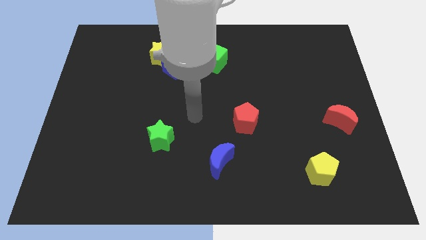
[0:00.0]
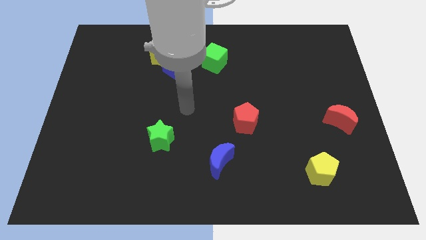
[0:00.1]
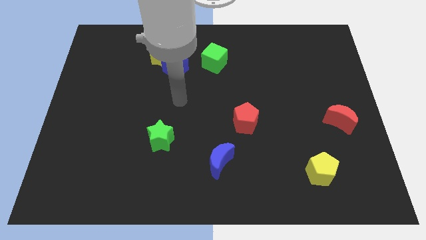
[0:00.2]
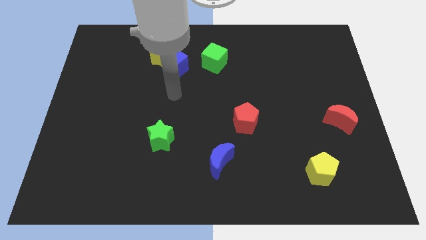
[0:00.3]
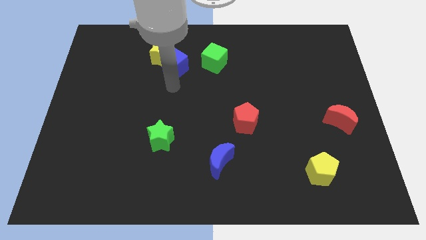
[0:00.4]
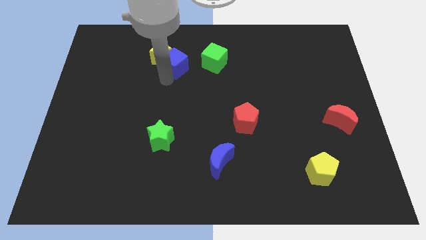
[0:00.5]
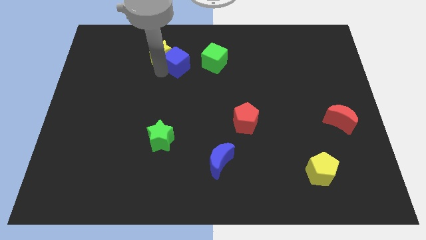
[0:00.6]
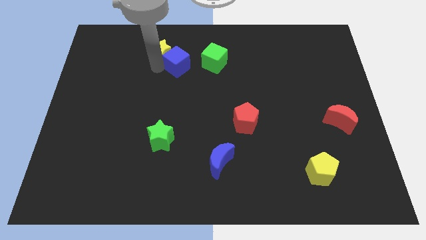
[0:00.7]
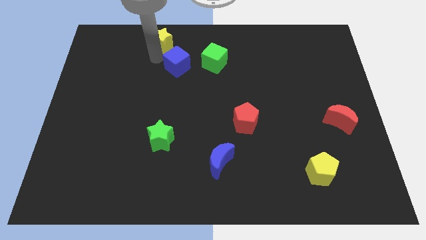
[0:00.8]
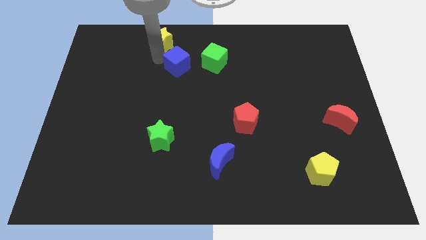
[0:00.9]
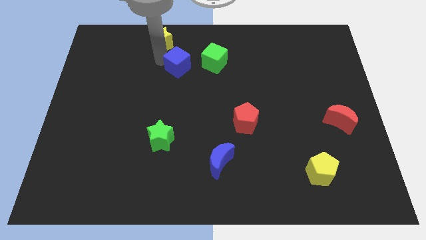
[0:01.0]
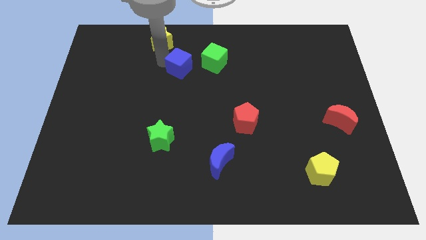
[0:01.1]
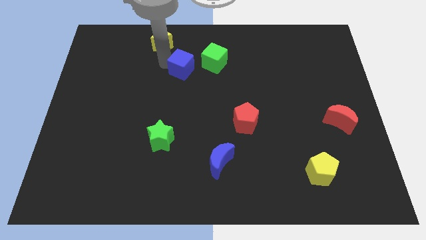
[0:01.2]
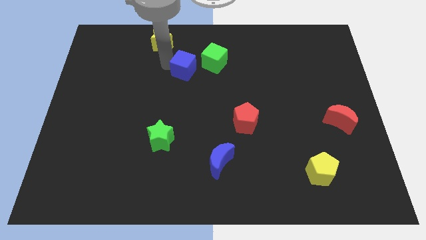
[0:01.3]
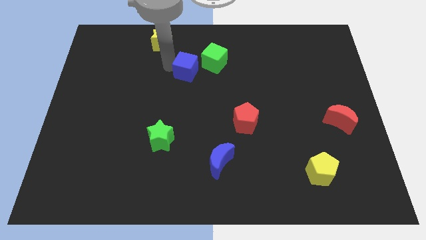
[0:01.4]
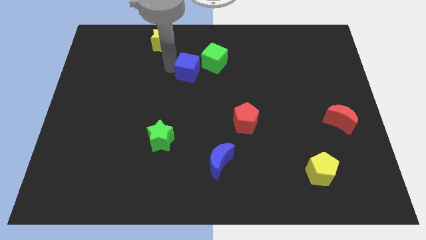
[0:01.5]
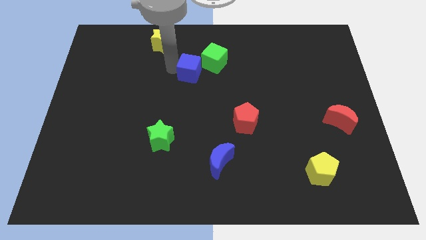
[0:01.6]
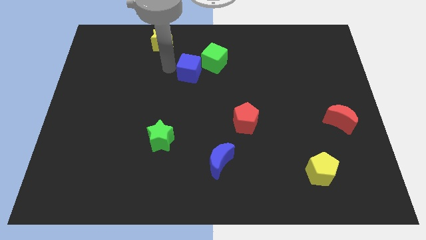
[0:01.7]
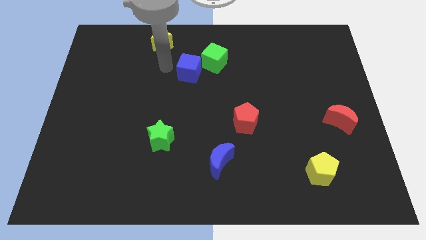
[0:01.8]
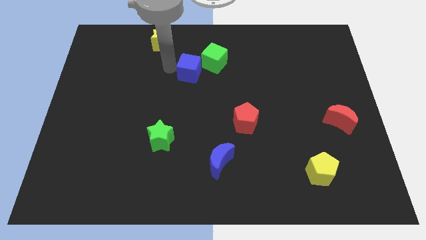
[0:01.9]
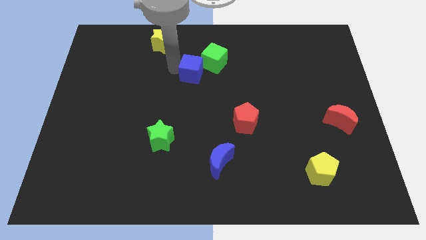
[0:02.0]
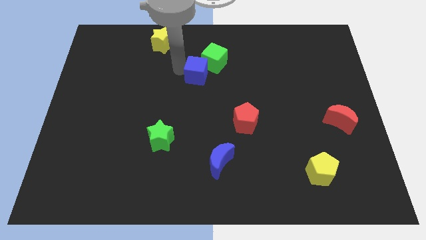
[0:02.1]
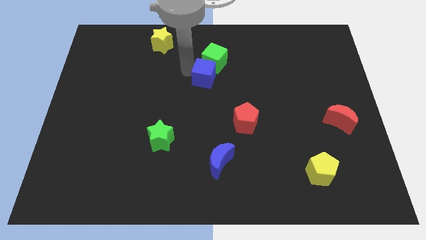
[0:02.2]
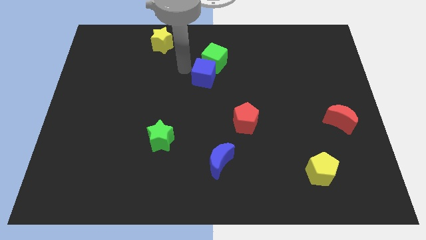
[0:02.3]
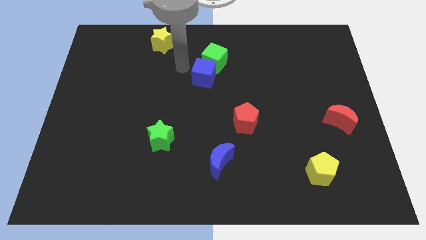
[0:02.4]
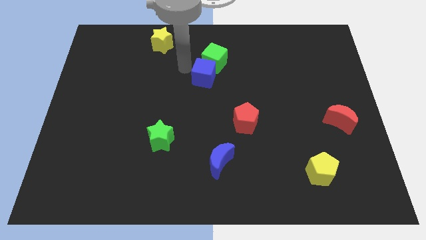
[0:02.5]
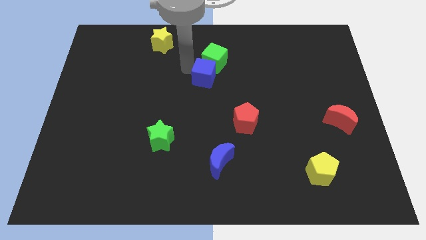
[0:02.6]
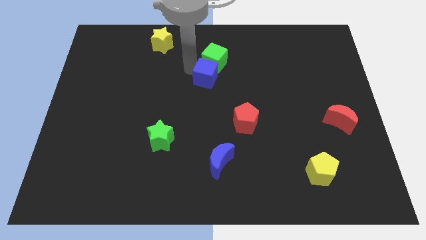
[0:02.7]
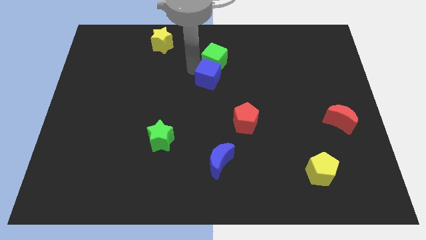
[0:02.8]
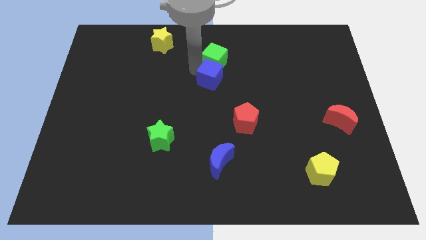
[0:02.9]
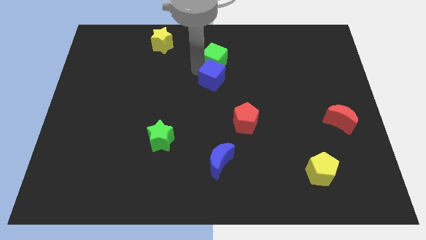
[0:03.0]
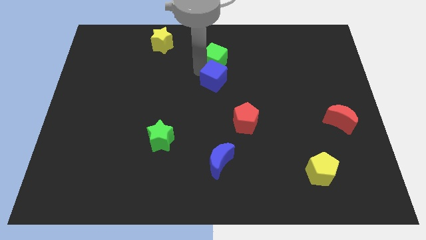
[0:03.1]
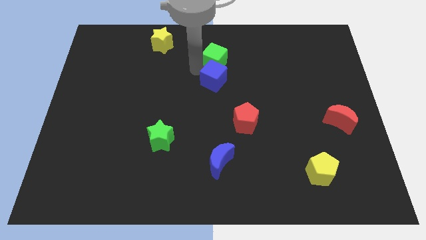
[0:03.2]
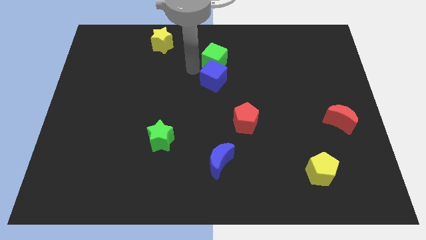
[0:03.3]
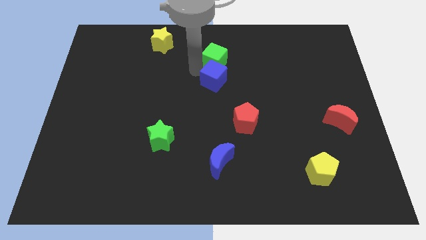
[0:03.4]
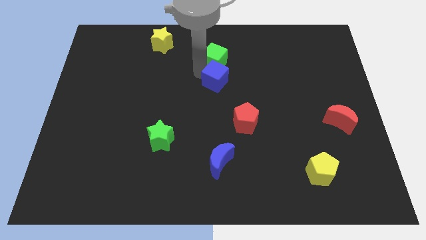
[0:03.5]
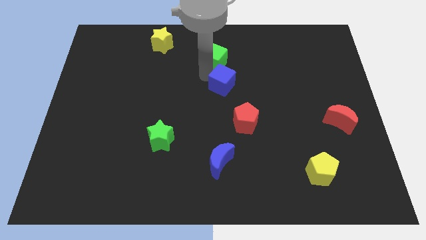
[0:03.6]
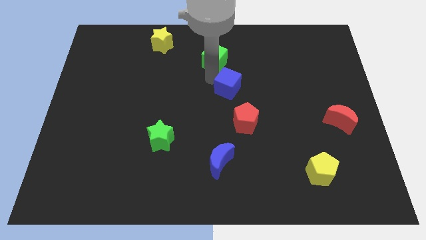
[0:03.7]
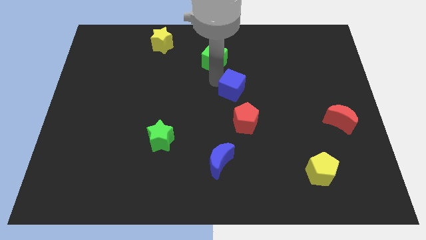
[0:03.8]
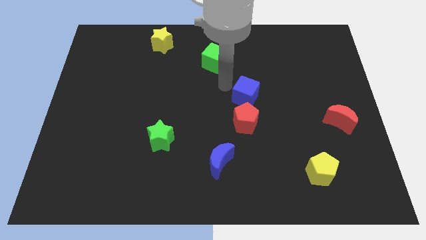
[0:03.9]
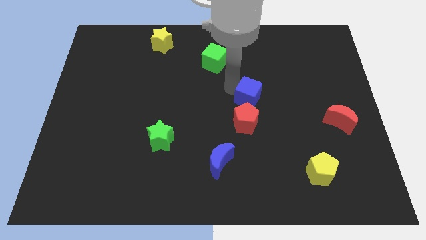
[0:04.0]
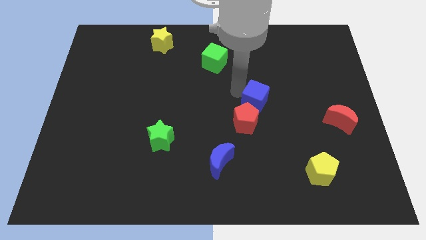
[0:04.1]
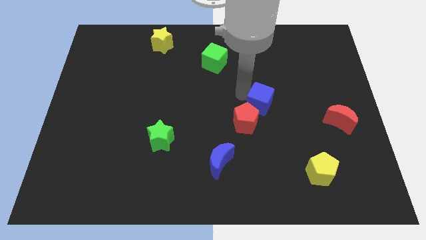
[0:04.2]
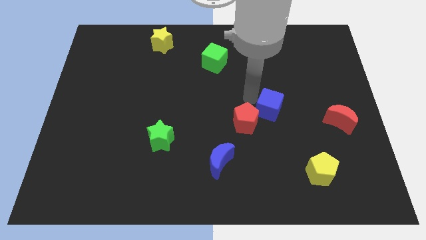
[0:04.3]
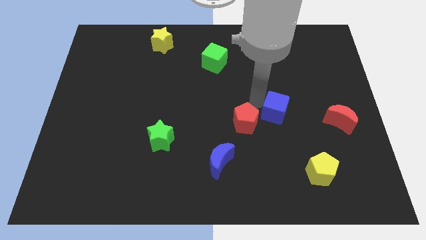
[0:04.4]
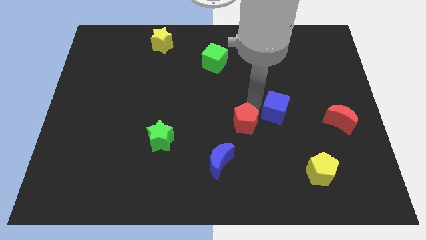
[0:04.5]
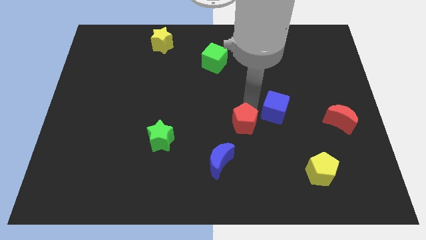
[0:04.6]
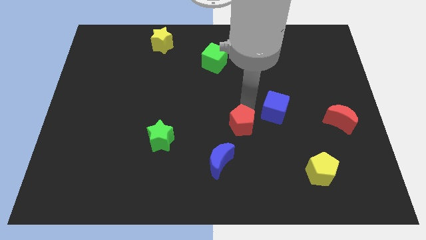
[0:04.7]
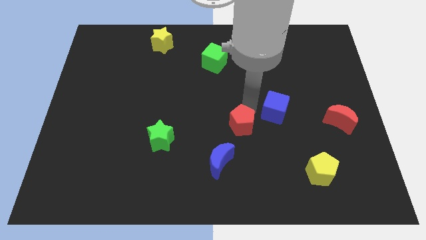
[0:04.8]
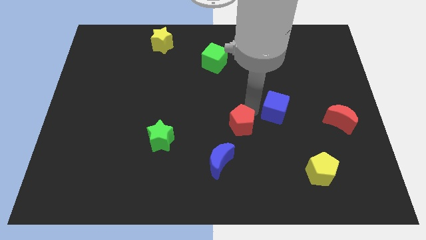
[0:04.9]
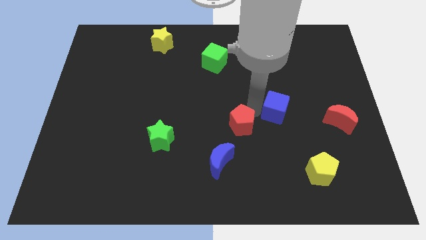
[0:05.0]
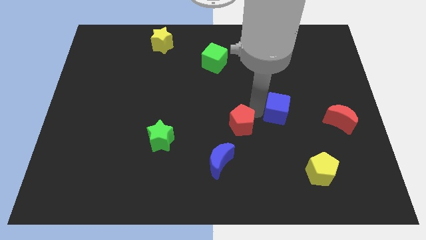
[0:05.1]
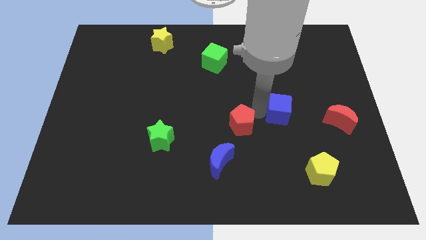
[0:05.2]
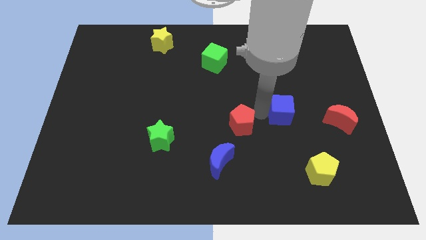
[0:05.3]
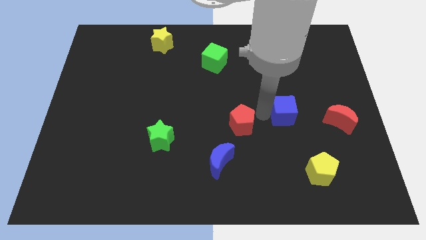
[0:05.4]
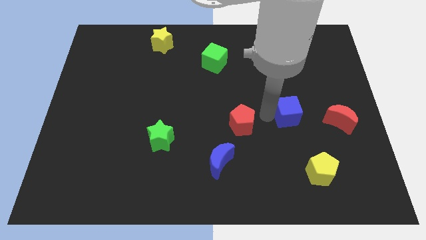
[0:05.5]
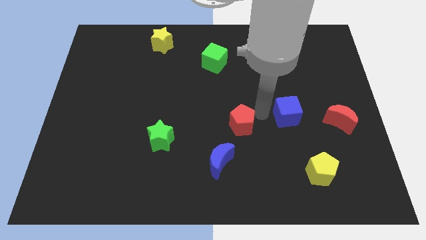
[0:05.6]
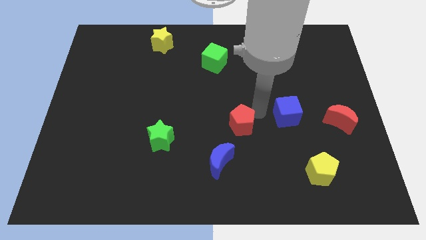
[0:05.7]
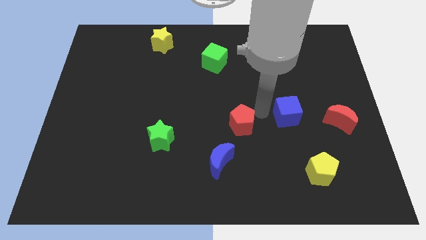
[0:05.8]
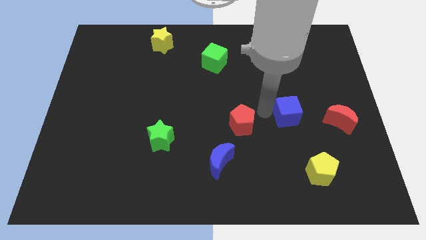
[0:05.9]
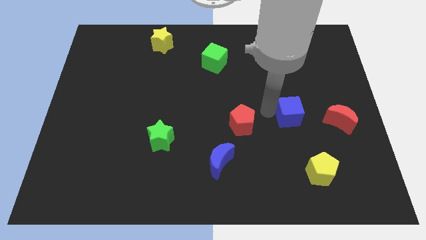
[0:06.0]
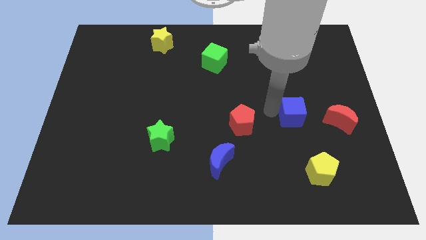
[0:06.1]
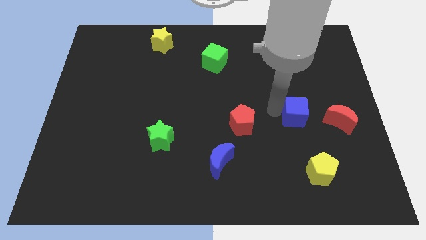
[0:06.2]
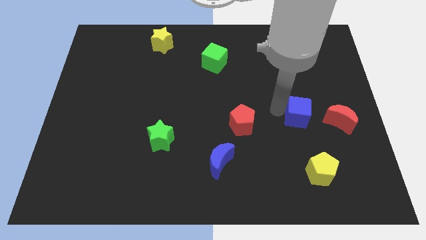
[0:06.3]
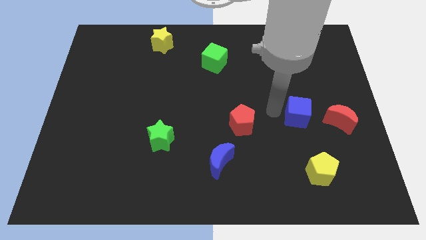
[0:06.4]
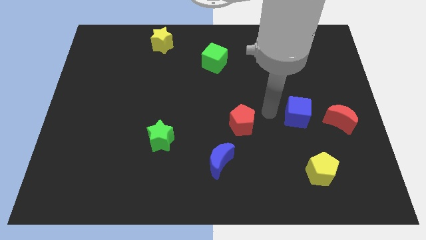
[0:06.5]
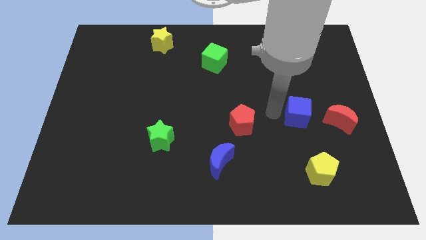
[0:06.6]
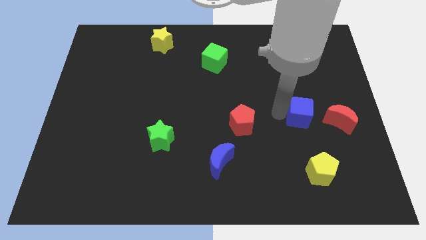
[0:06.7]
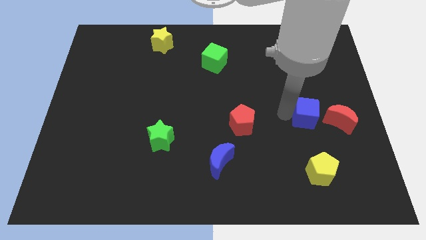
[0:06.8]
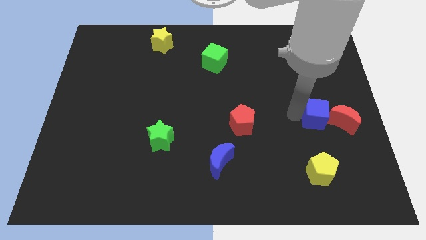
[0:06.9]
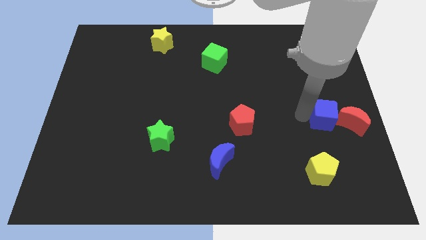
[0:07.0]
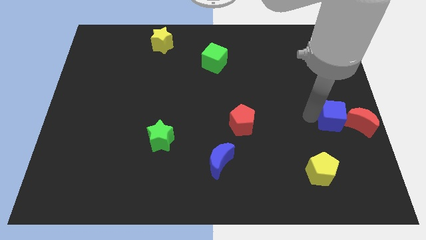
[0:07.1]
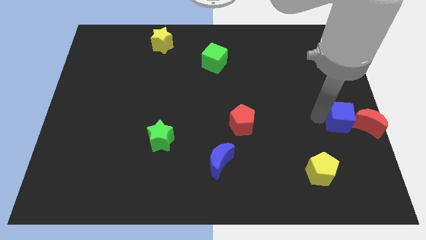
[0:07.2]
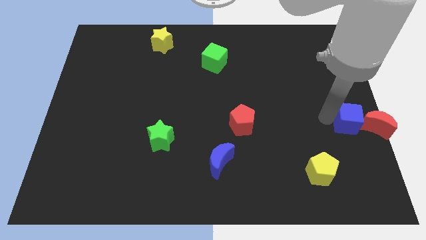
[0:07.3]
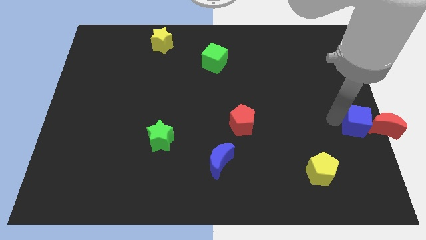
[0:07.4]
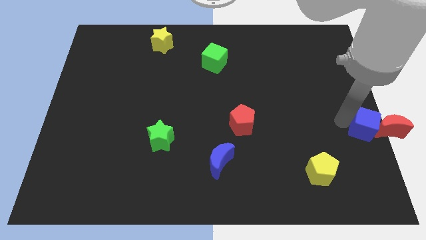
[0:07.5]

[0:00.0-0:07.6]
slide the blue cube close to the red moon
